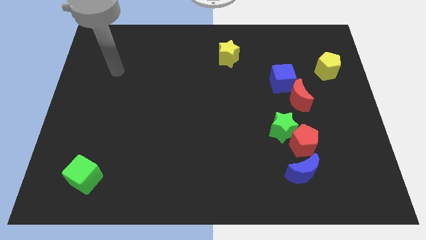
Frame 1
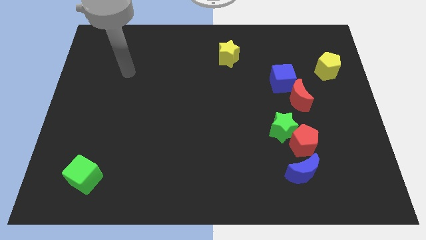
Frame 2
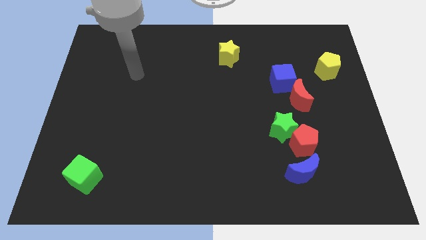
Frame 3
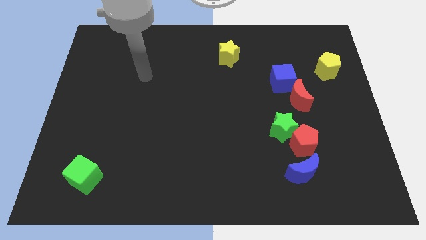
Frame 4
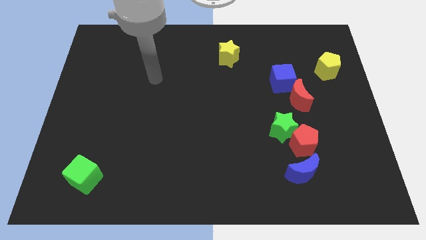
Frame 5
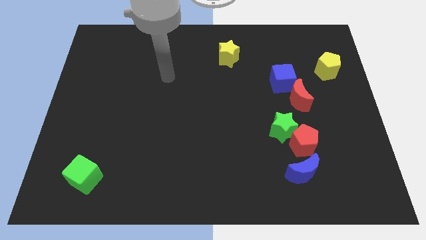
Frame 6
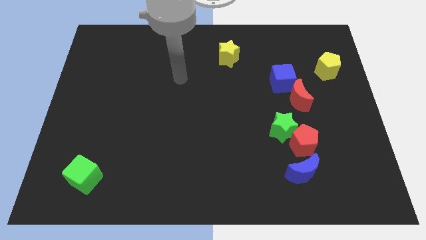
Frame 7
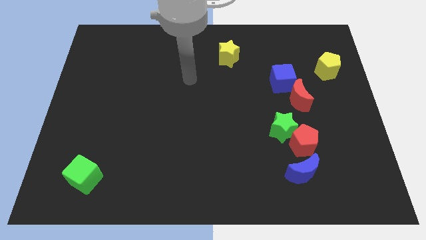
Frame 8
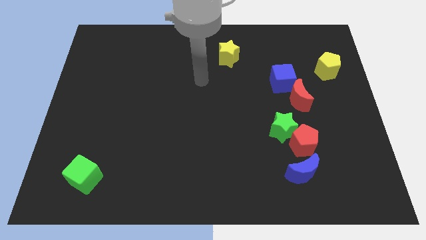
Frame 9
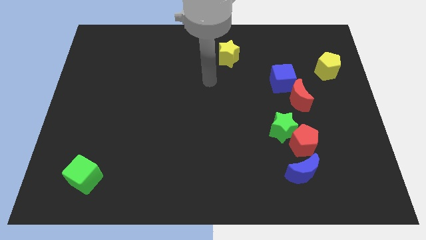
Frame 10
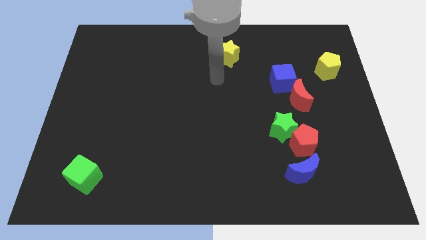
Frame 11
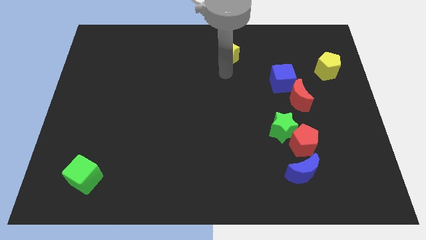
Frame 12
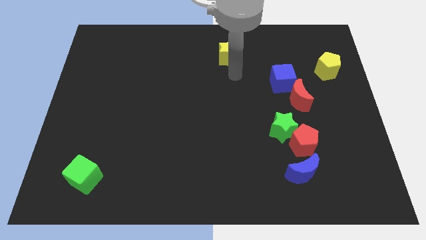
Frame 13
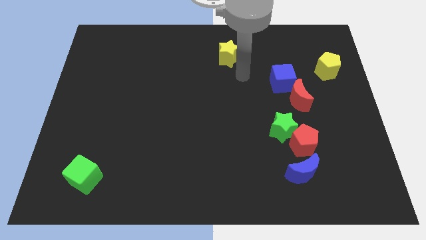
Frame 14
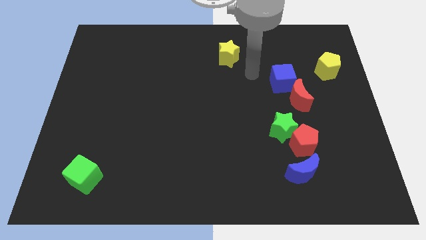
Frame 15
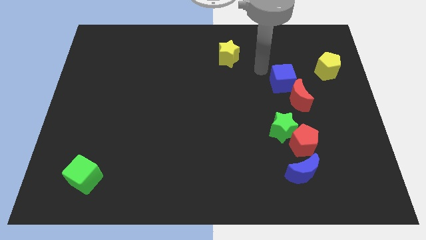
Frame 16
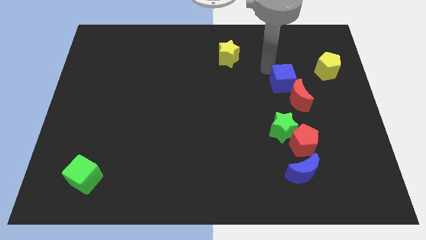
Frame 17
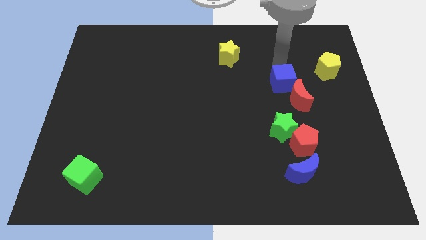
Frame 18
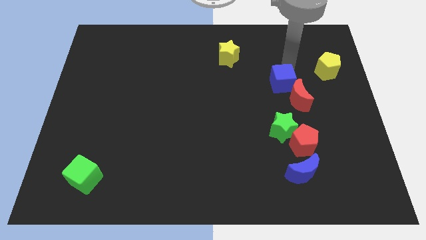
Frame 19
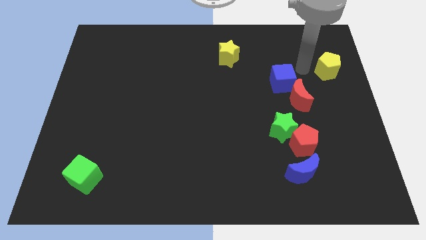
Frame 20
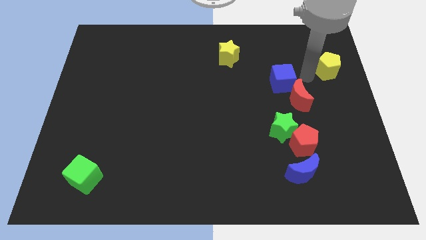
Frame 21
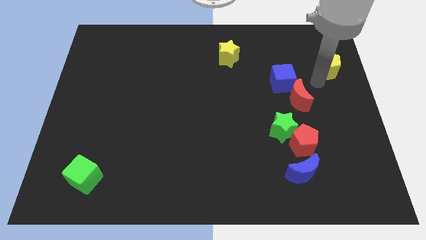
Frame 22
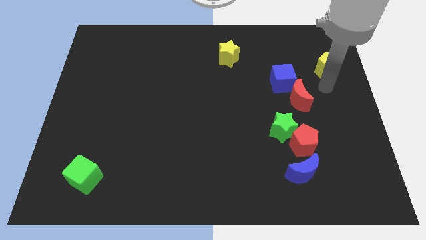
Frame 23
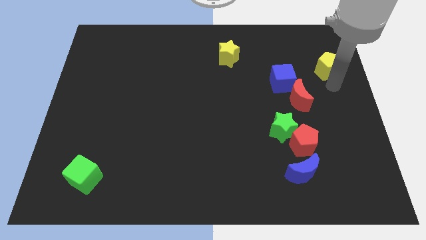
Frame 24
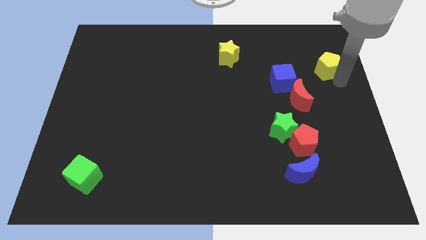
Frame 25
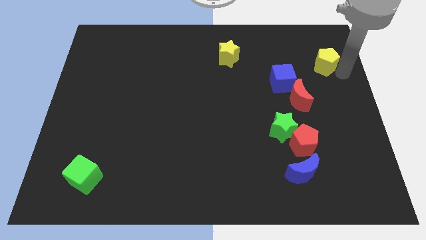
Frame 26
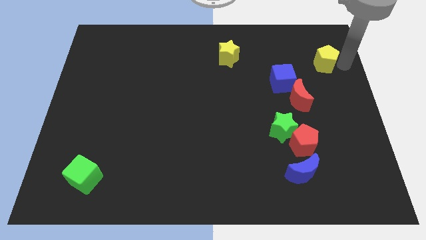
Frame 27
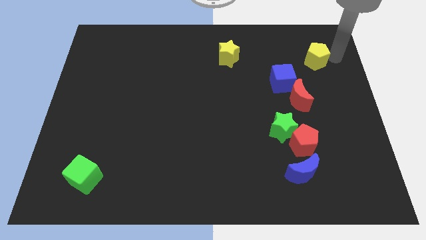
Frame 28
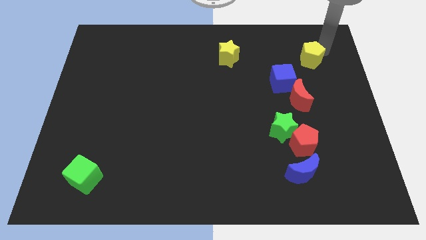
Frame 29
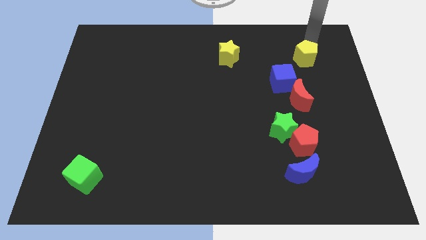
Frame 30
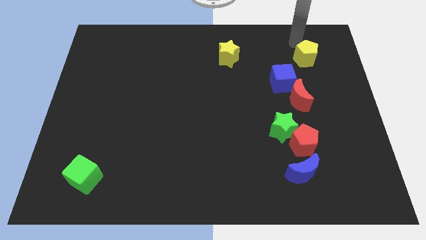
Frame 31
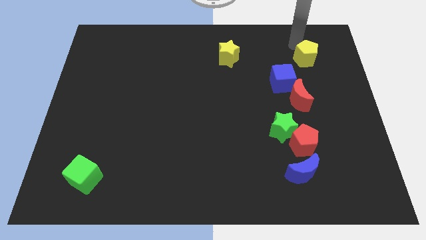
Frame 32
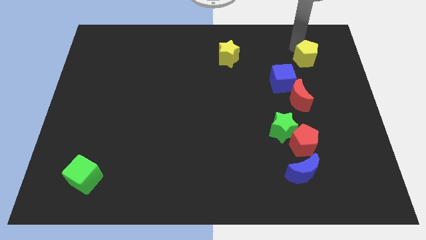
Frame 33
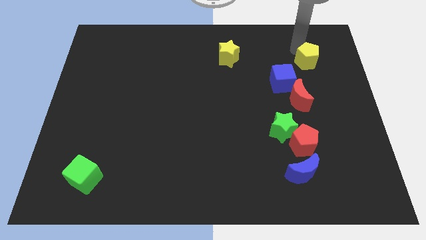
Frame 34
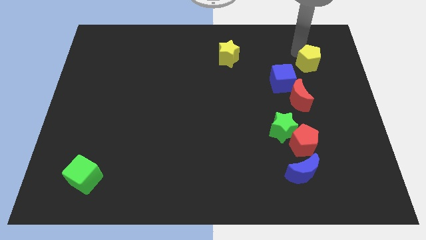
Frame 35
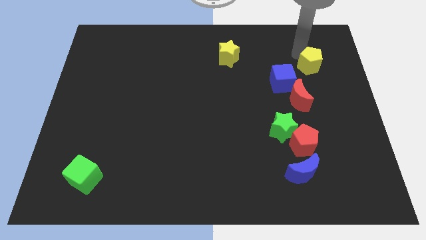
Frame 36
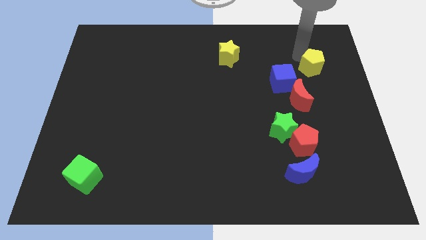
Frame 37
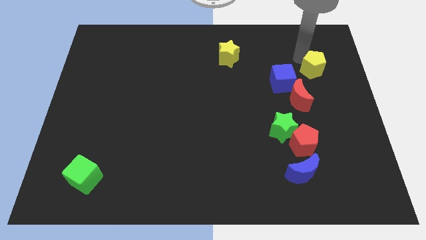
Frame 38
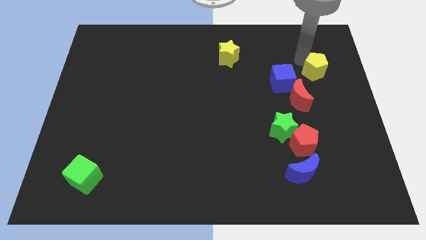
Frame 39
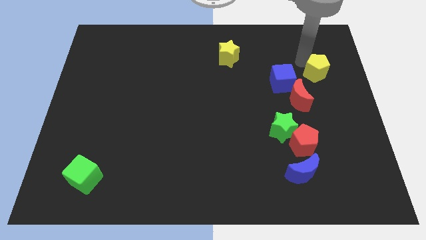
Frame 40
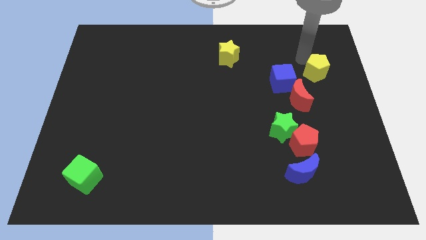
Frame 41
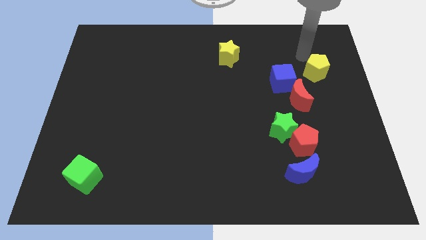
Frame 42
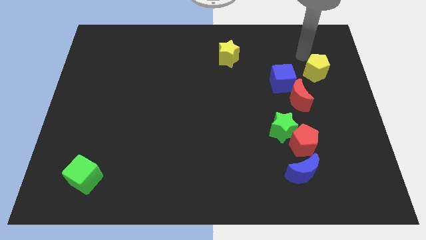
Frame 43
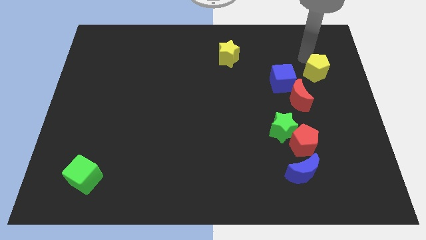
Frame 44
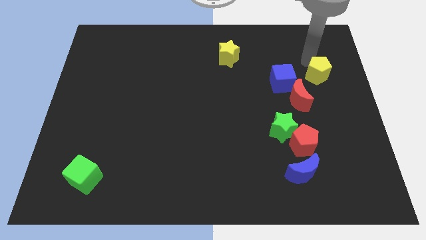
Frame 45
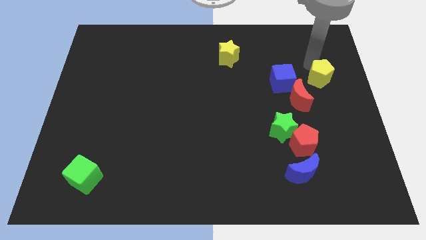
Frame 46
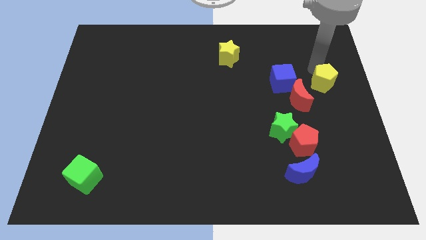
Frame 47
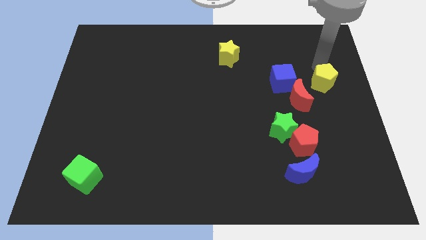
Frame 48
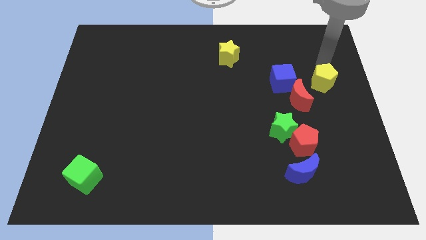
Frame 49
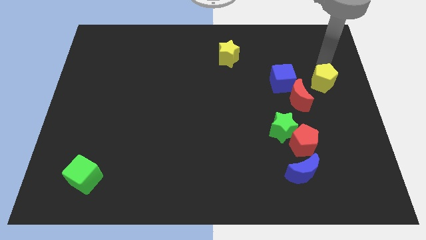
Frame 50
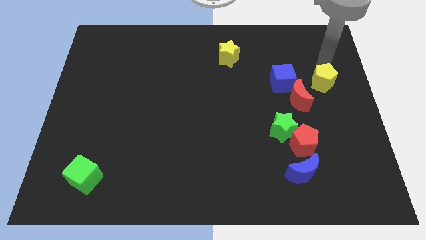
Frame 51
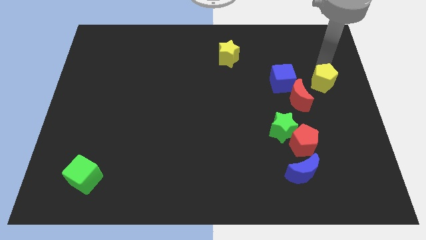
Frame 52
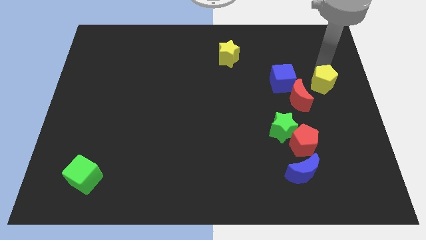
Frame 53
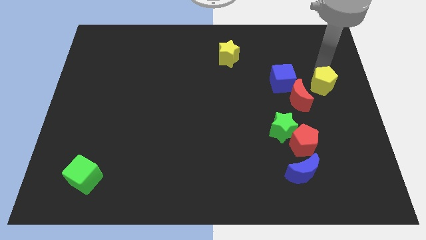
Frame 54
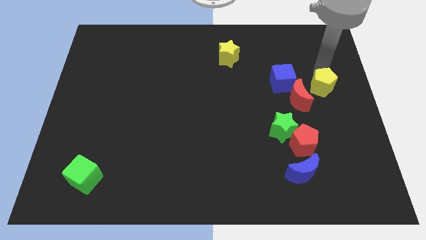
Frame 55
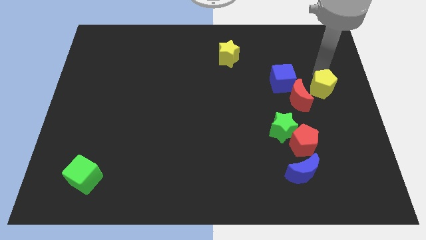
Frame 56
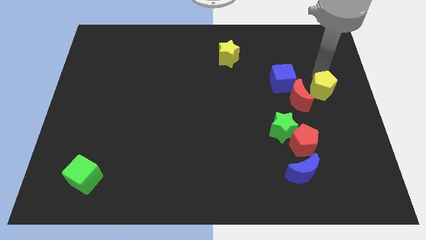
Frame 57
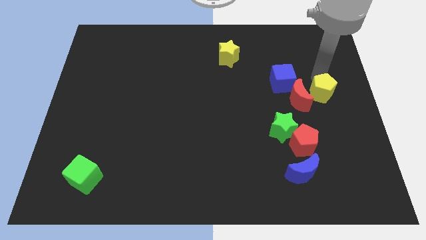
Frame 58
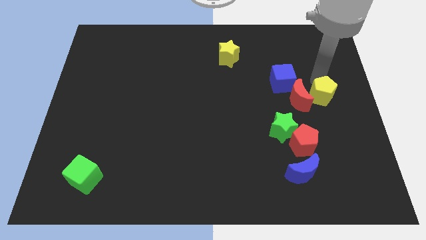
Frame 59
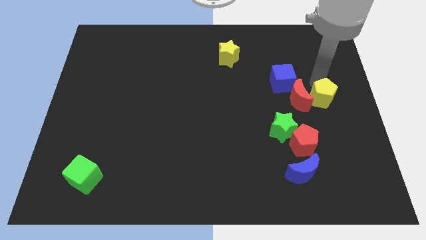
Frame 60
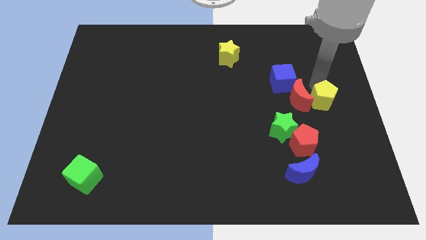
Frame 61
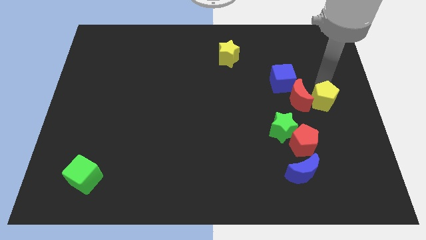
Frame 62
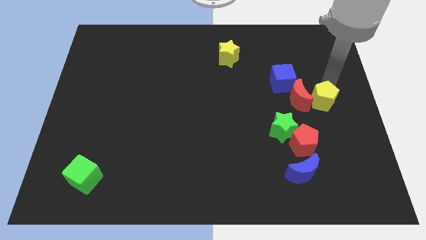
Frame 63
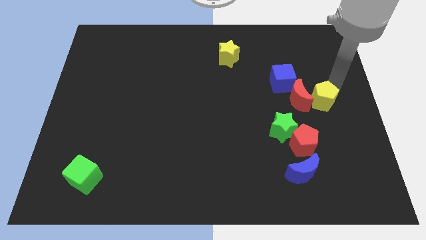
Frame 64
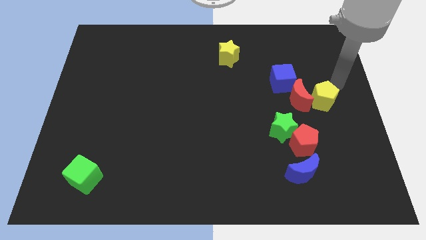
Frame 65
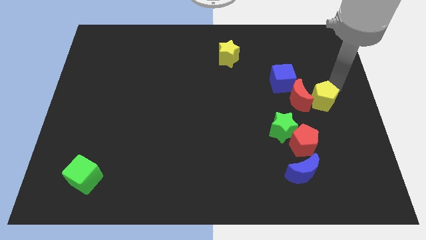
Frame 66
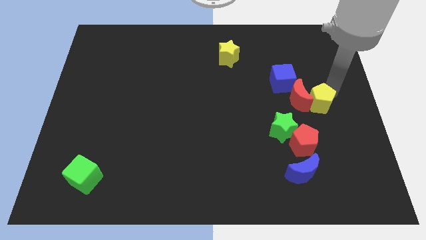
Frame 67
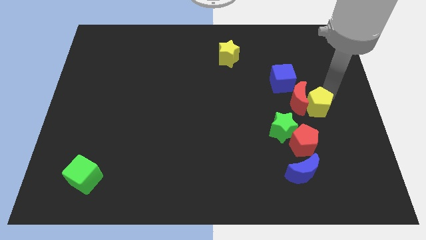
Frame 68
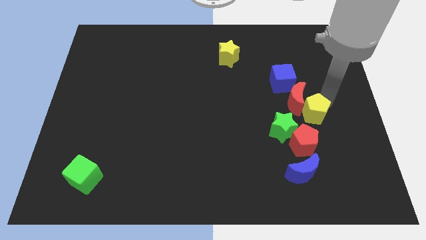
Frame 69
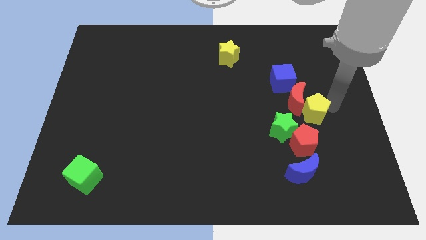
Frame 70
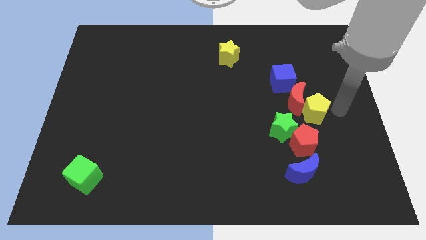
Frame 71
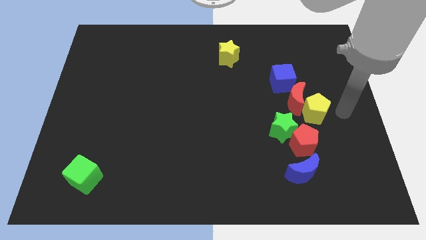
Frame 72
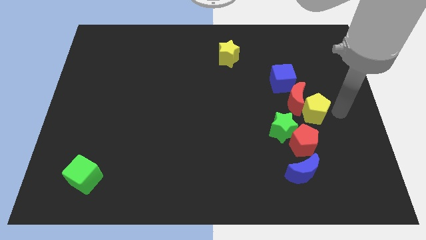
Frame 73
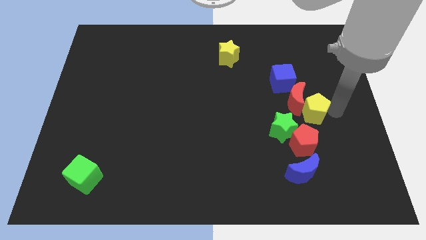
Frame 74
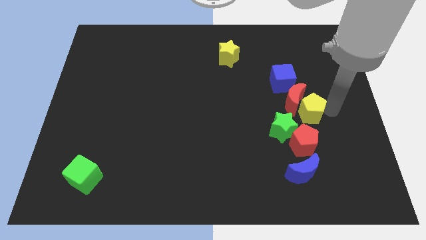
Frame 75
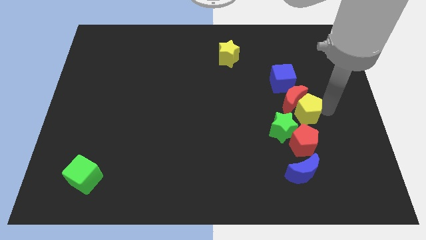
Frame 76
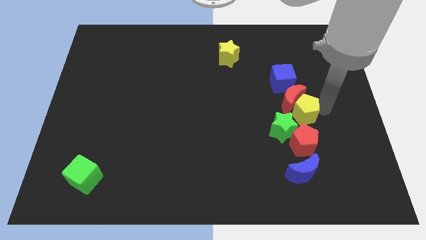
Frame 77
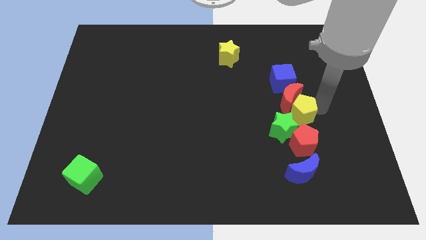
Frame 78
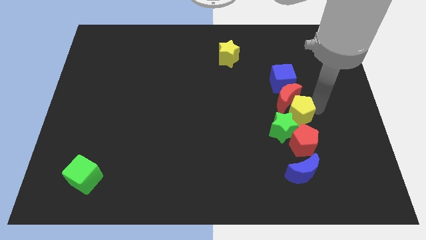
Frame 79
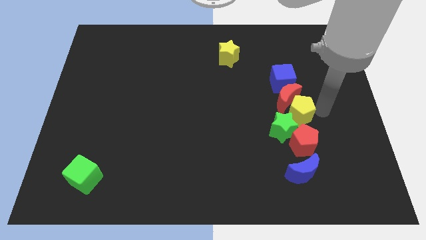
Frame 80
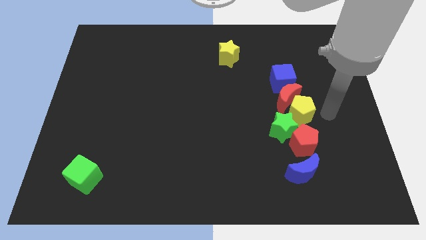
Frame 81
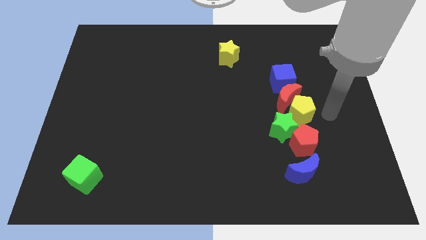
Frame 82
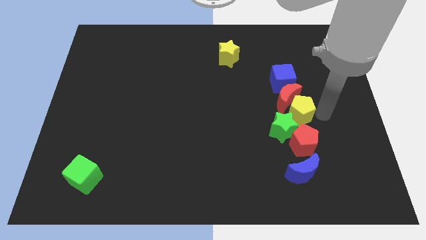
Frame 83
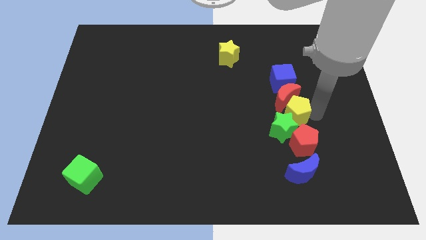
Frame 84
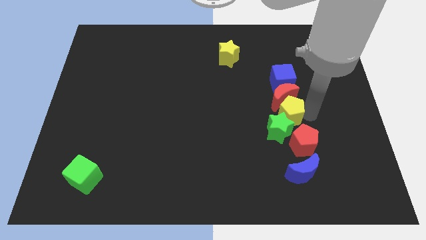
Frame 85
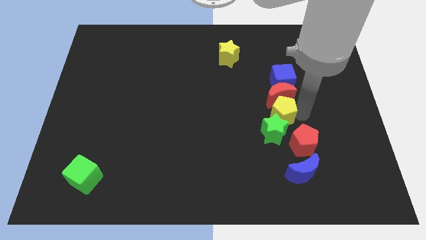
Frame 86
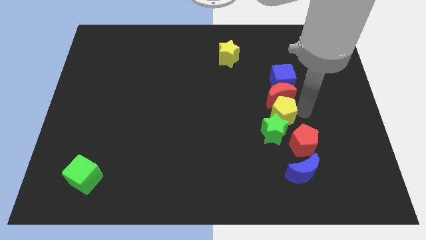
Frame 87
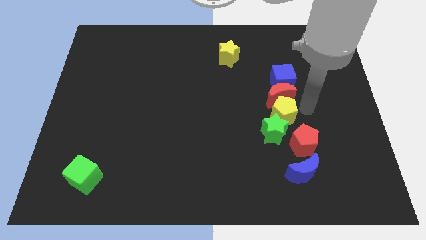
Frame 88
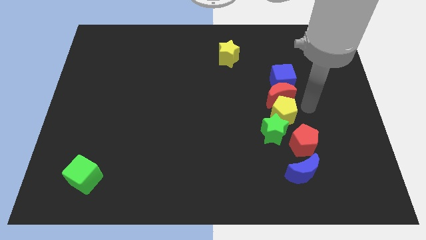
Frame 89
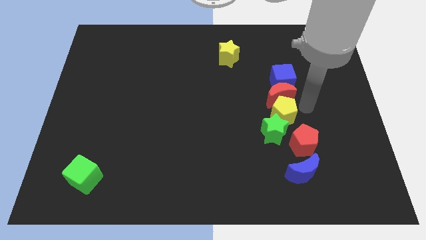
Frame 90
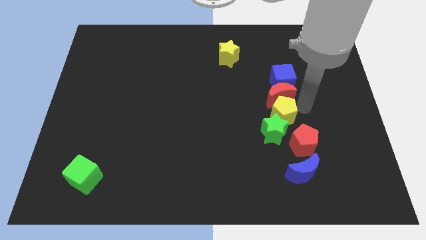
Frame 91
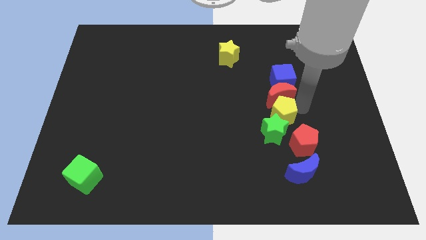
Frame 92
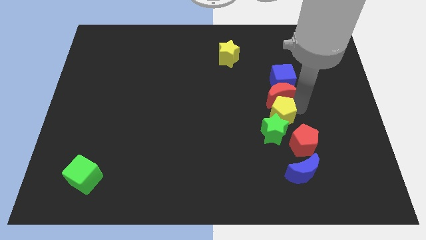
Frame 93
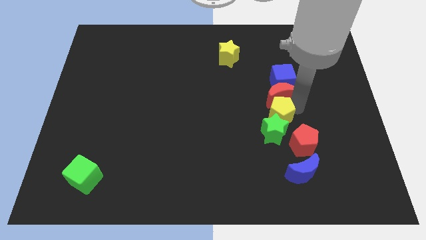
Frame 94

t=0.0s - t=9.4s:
push the yellow pentagon down and to the left diagonally
